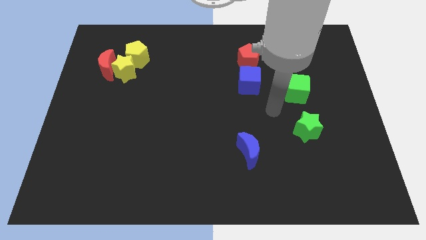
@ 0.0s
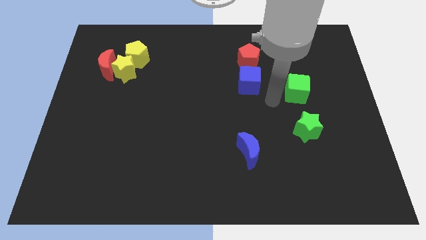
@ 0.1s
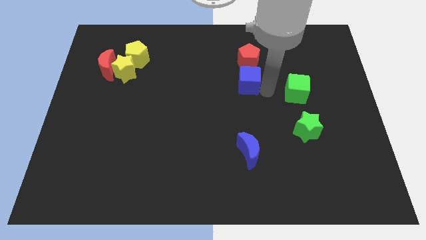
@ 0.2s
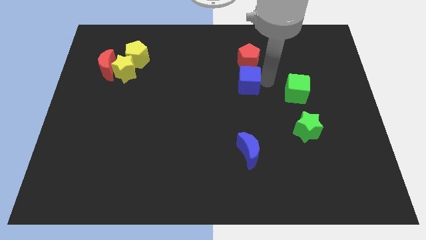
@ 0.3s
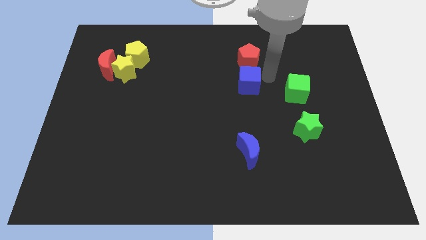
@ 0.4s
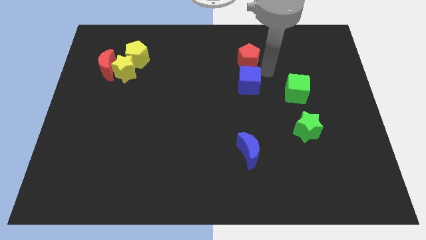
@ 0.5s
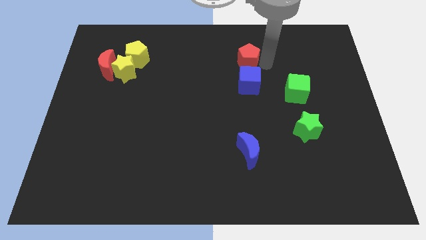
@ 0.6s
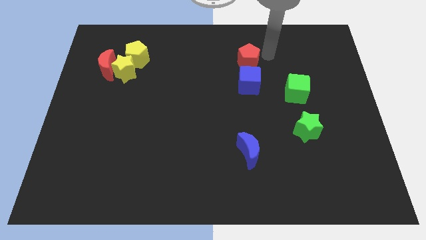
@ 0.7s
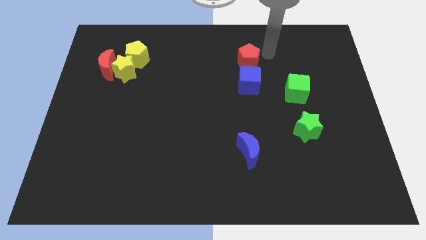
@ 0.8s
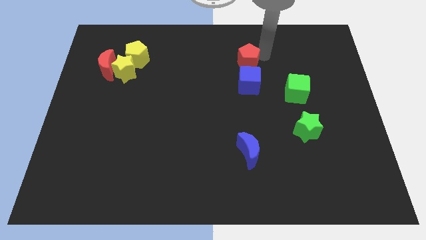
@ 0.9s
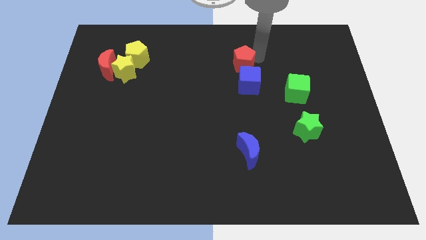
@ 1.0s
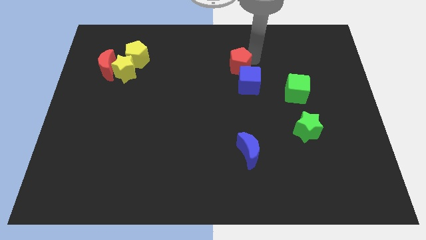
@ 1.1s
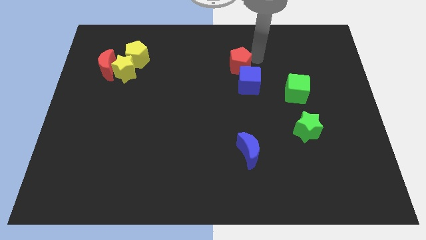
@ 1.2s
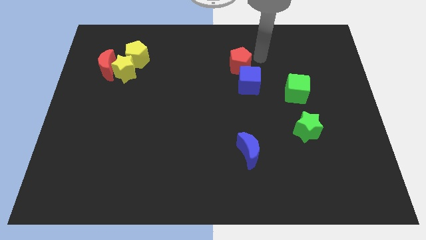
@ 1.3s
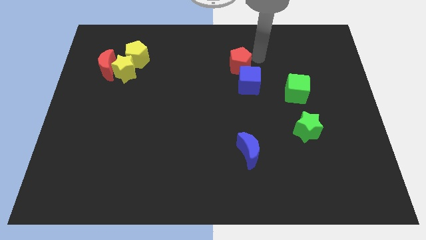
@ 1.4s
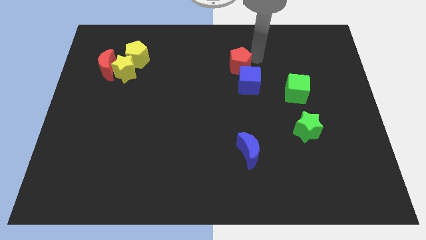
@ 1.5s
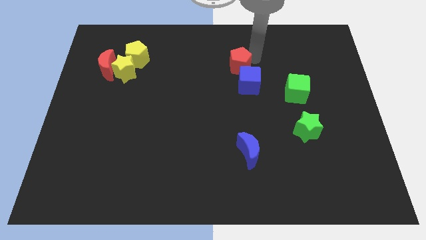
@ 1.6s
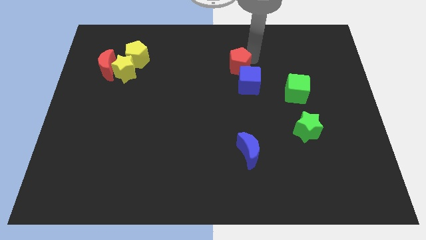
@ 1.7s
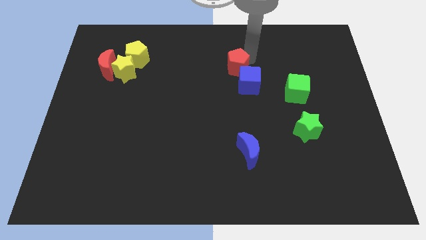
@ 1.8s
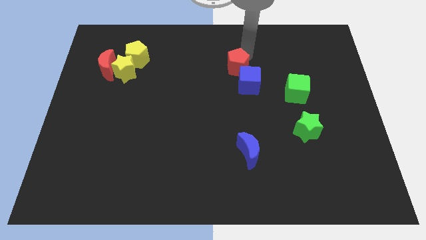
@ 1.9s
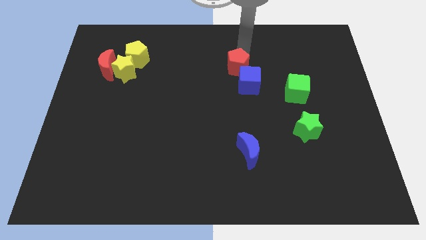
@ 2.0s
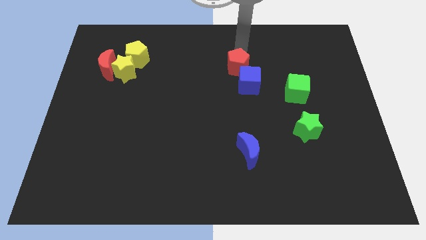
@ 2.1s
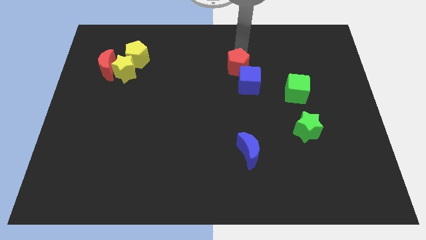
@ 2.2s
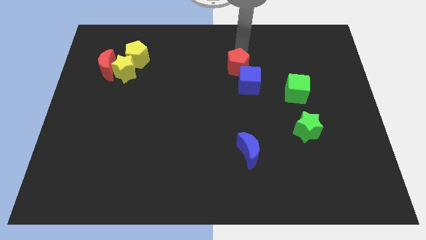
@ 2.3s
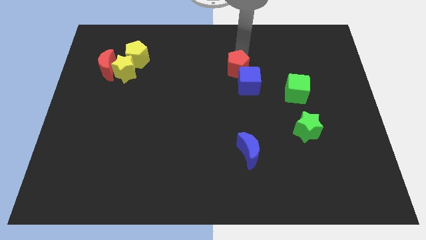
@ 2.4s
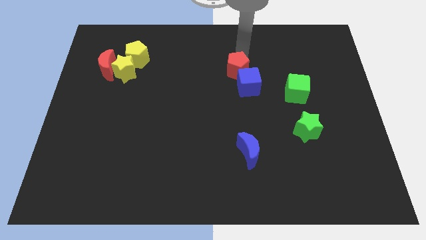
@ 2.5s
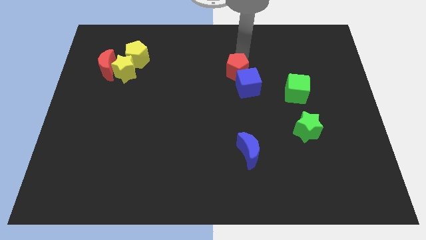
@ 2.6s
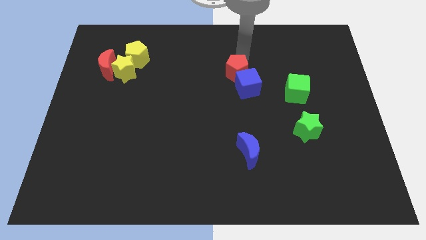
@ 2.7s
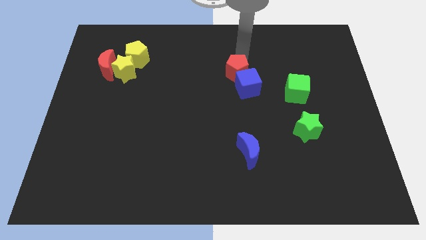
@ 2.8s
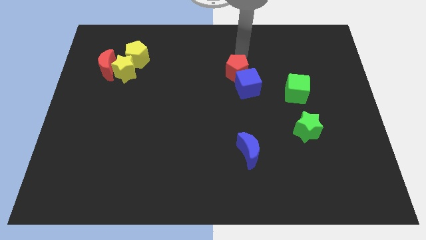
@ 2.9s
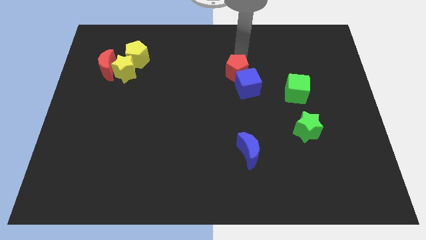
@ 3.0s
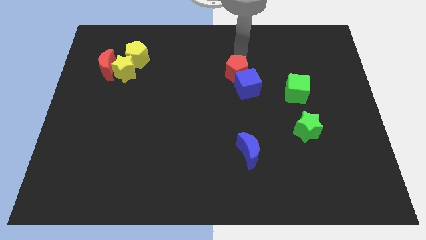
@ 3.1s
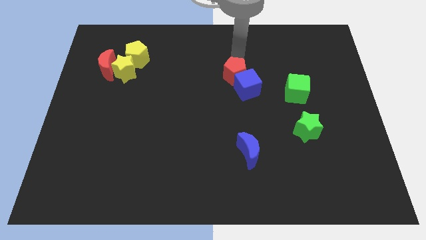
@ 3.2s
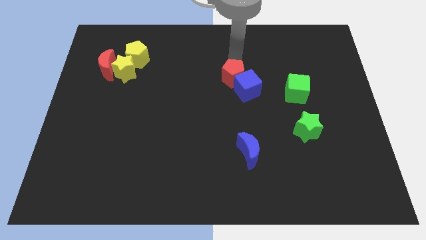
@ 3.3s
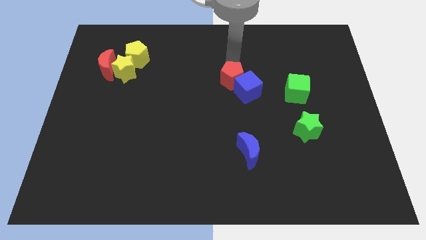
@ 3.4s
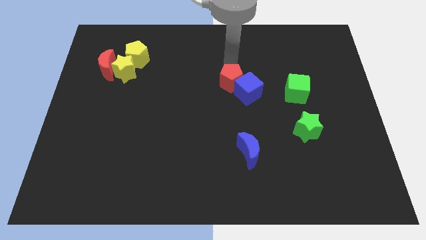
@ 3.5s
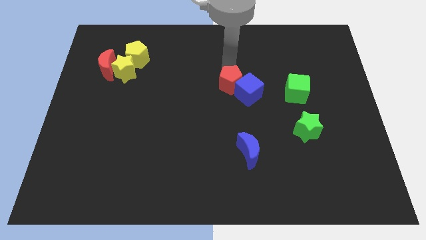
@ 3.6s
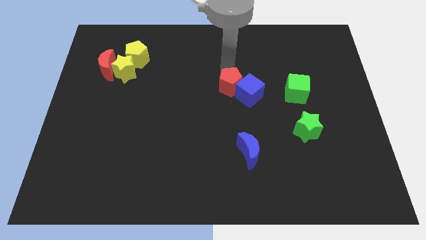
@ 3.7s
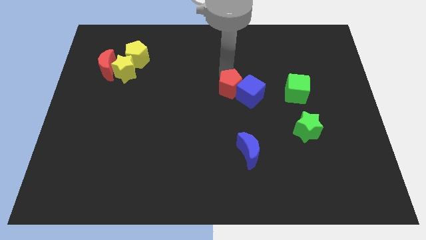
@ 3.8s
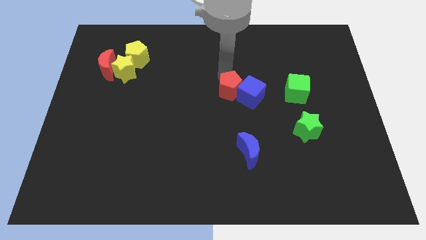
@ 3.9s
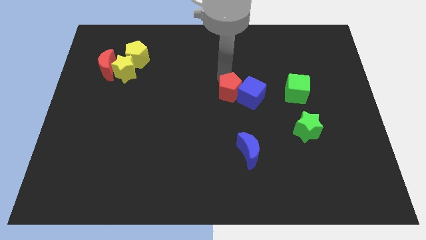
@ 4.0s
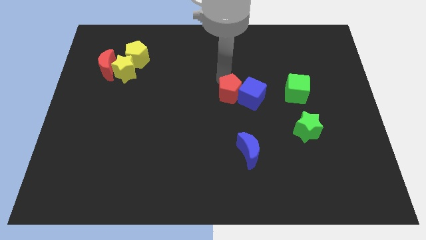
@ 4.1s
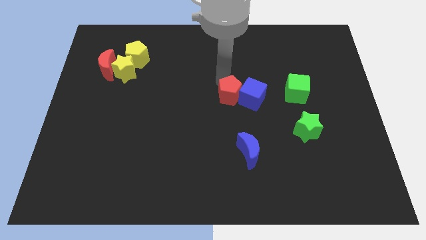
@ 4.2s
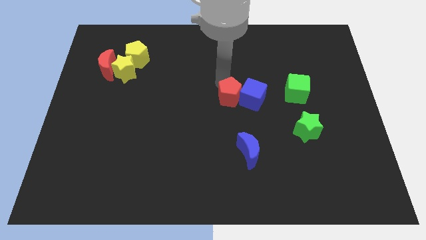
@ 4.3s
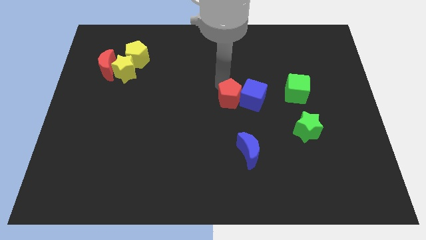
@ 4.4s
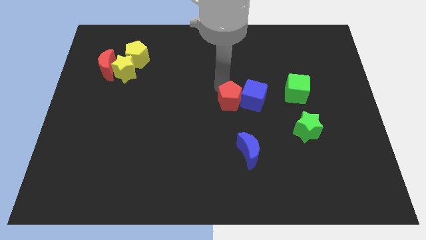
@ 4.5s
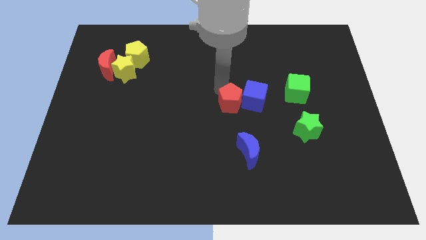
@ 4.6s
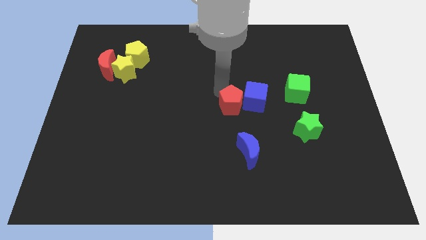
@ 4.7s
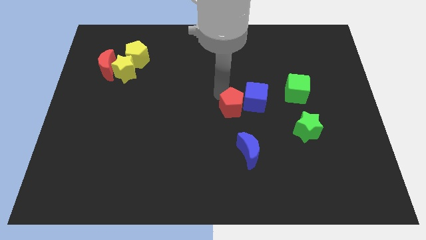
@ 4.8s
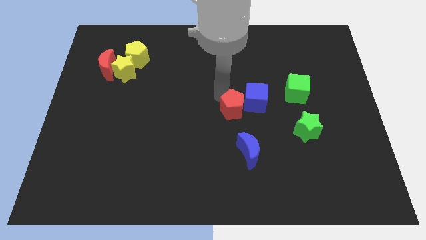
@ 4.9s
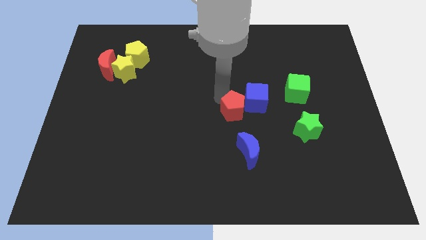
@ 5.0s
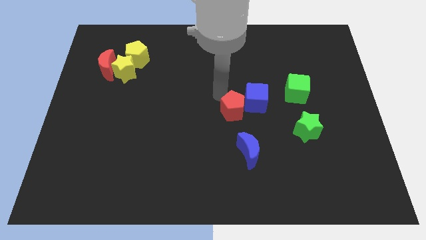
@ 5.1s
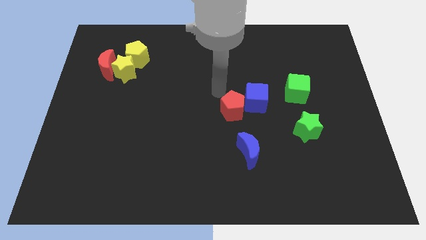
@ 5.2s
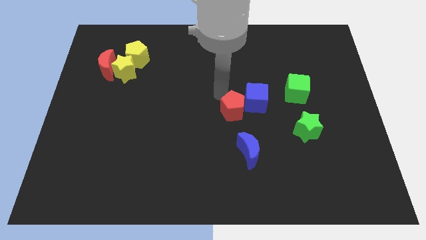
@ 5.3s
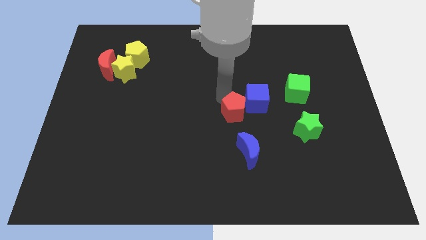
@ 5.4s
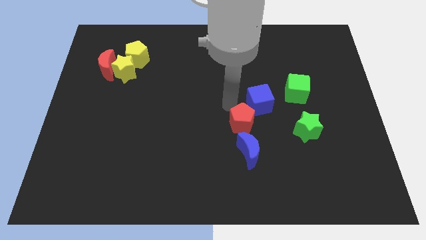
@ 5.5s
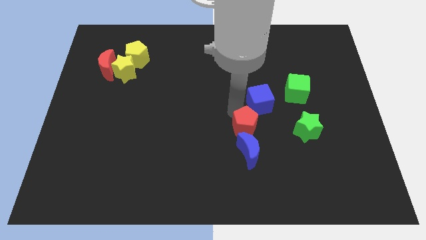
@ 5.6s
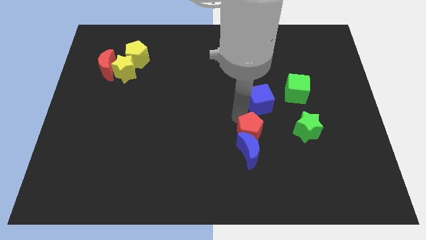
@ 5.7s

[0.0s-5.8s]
put the red pentagon towards the blue moon

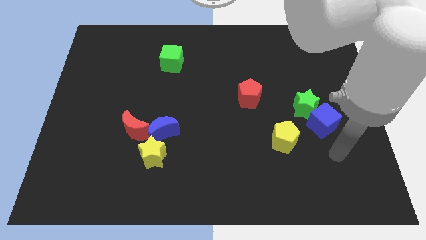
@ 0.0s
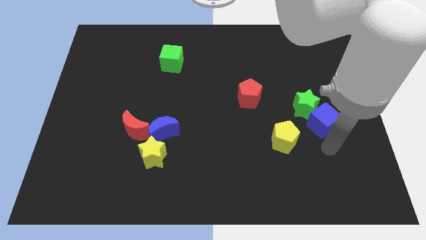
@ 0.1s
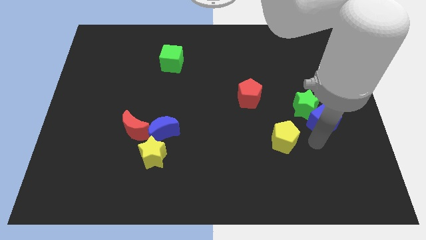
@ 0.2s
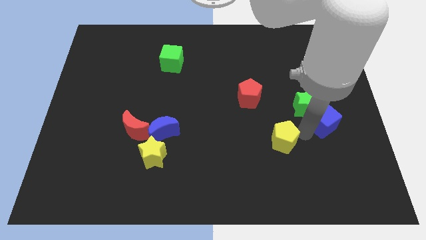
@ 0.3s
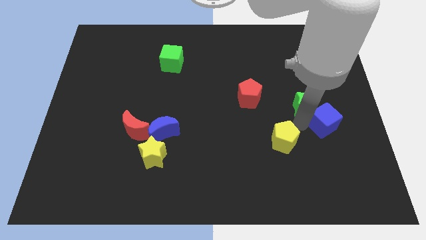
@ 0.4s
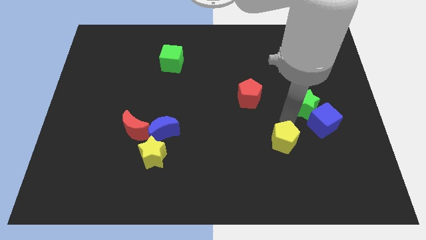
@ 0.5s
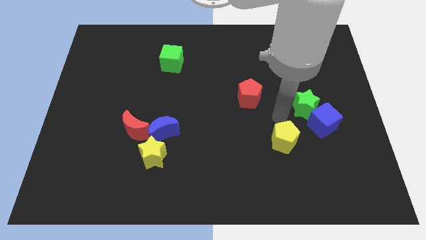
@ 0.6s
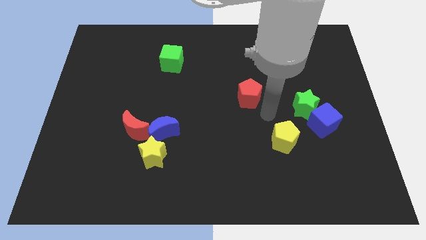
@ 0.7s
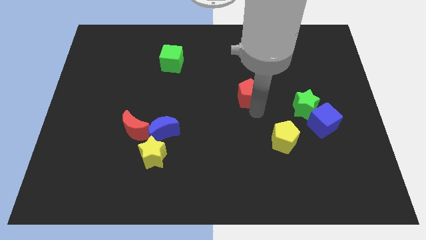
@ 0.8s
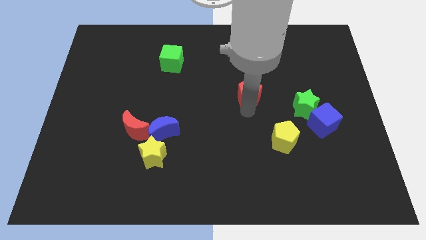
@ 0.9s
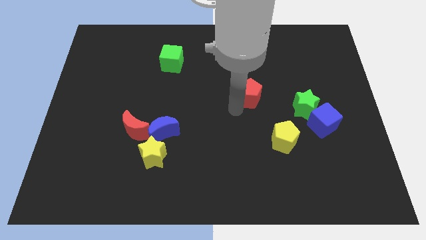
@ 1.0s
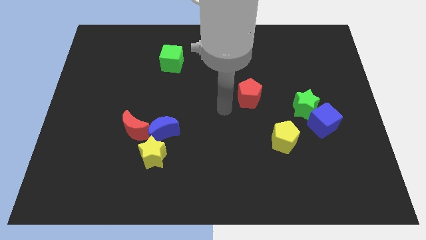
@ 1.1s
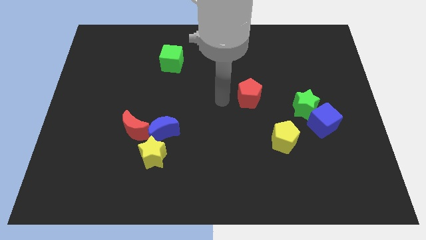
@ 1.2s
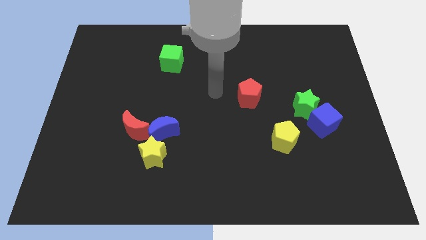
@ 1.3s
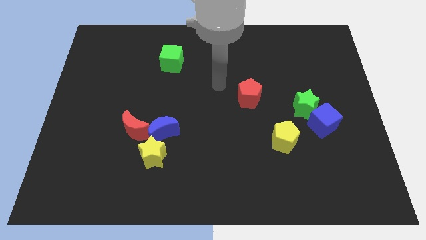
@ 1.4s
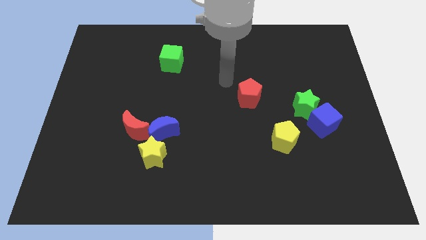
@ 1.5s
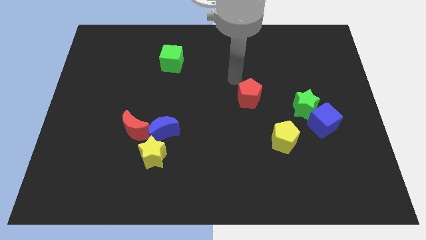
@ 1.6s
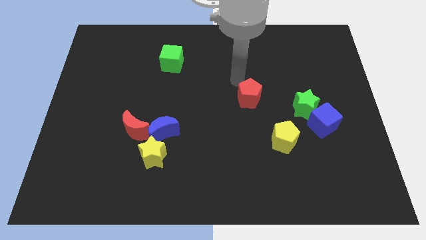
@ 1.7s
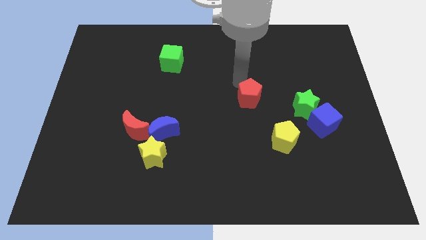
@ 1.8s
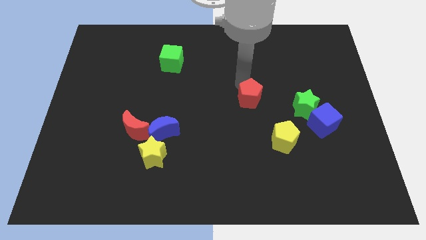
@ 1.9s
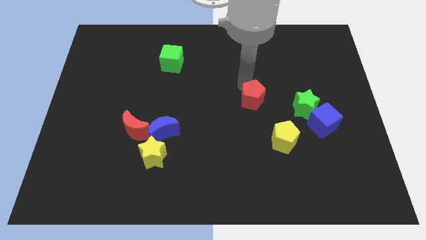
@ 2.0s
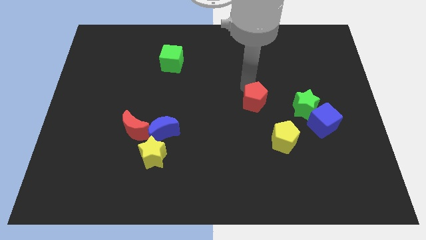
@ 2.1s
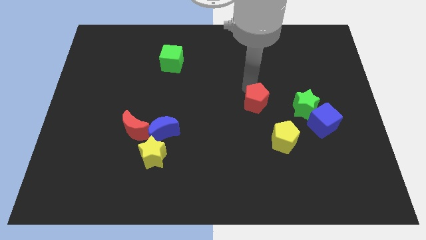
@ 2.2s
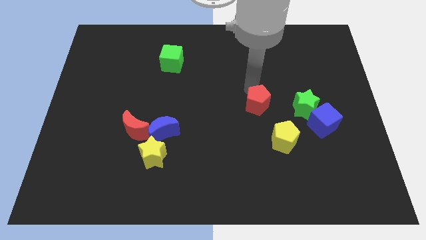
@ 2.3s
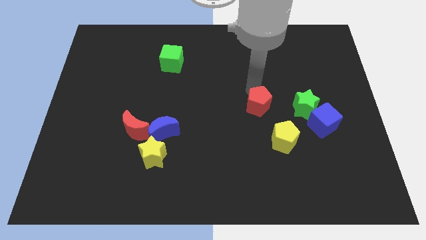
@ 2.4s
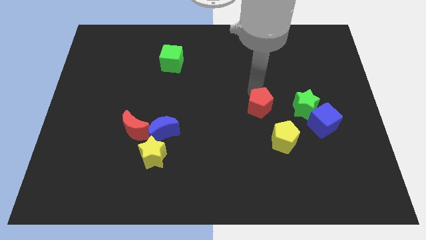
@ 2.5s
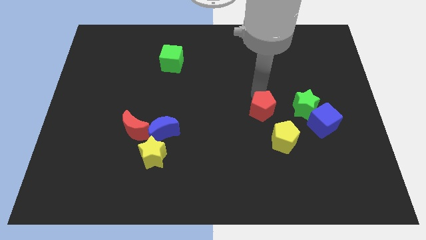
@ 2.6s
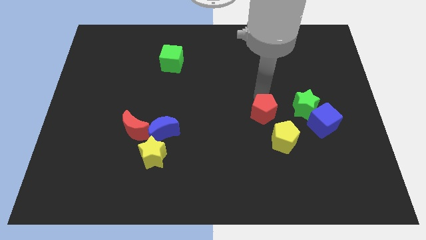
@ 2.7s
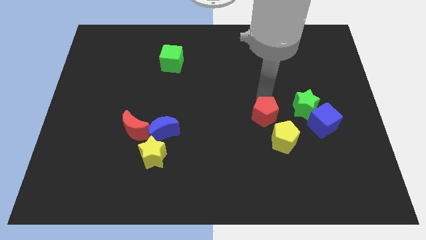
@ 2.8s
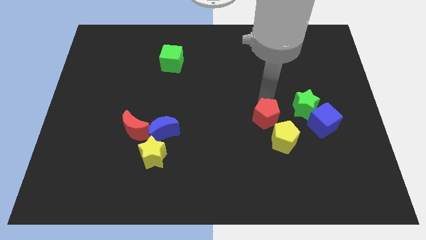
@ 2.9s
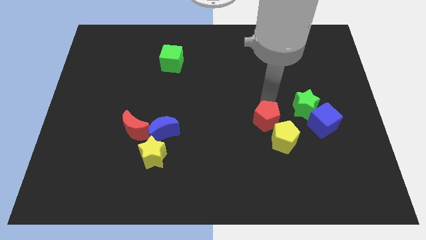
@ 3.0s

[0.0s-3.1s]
put the red pentagon close to the yellow pentagon
